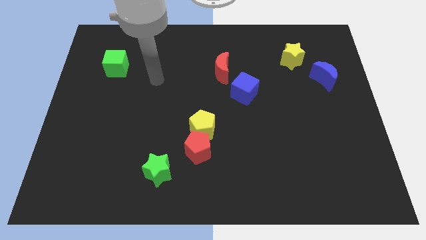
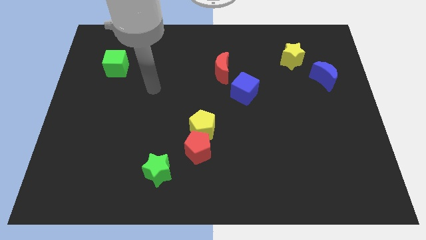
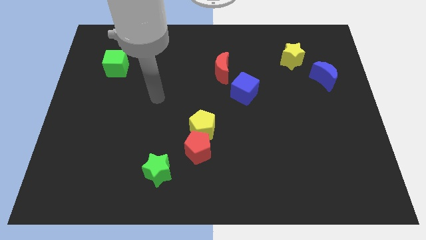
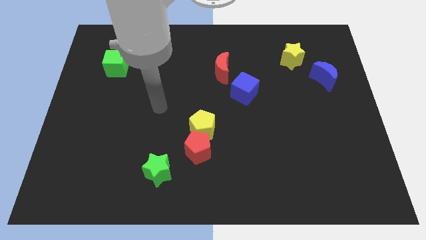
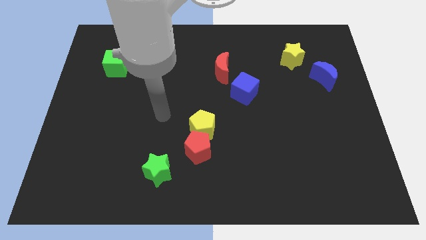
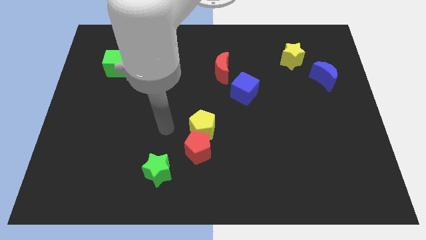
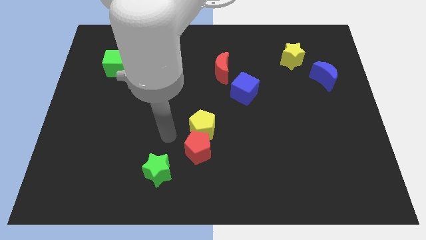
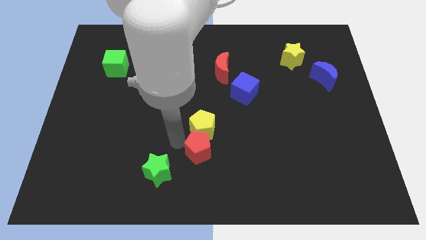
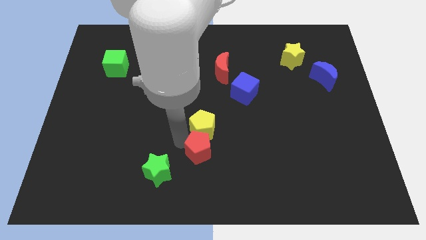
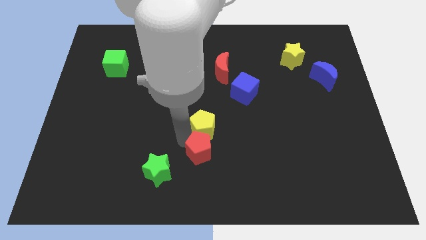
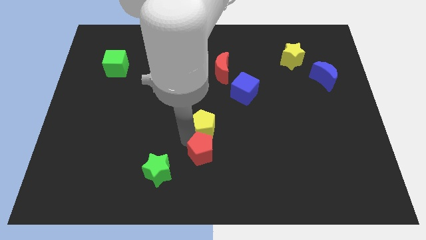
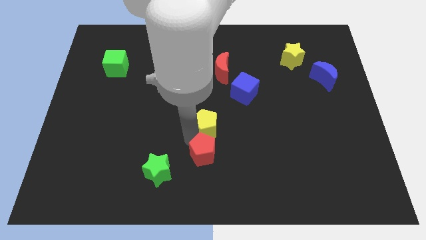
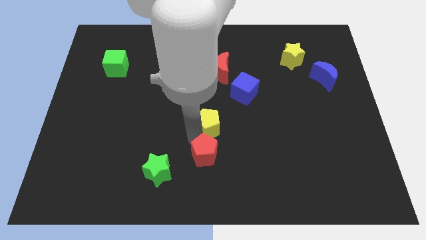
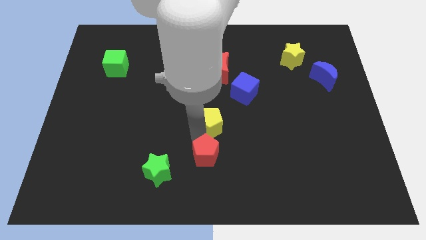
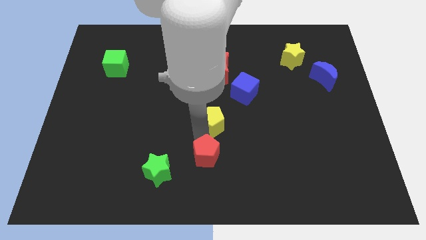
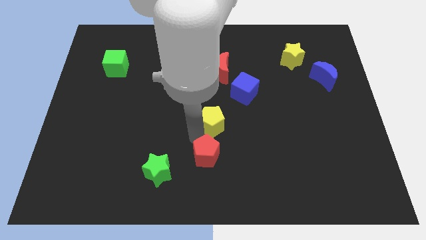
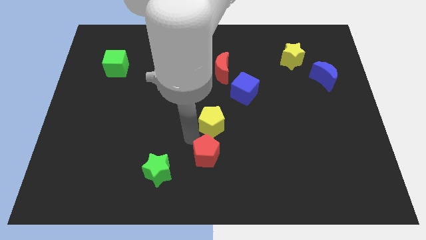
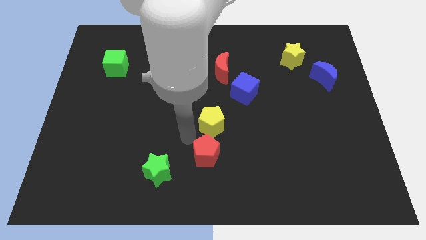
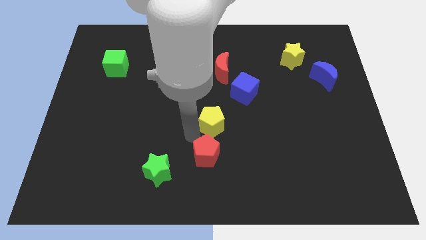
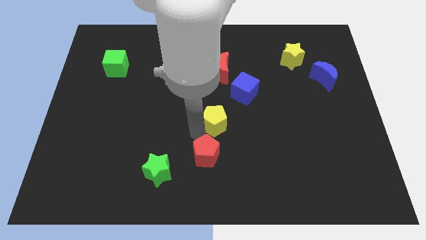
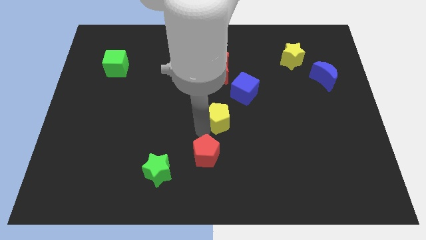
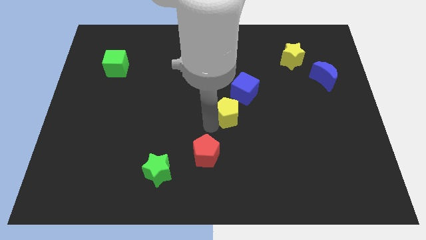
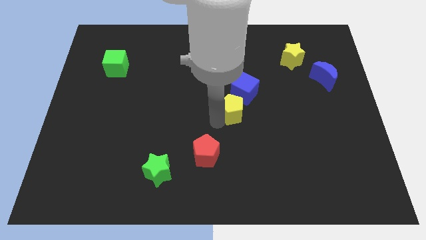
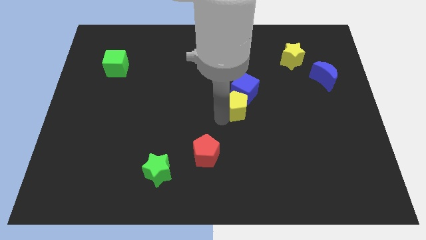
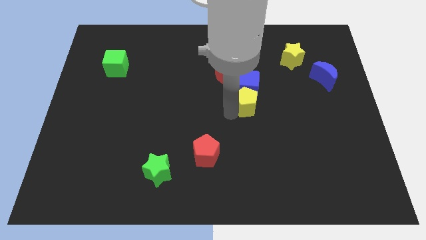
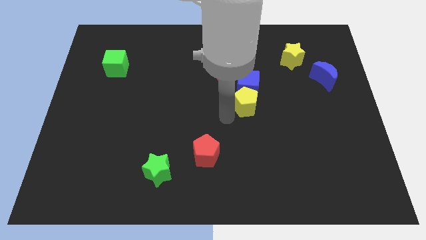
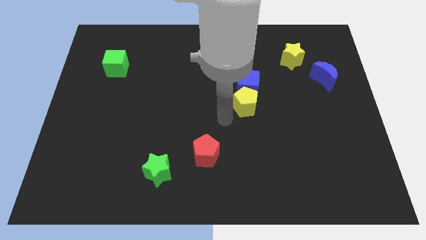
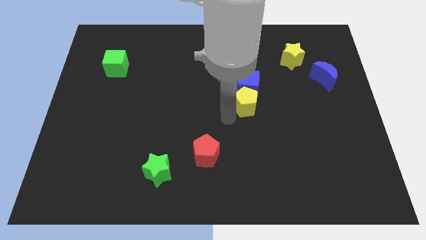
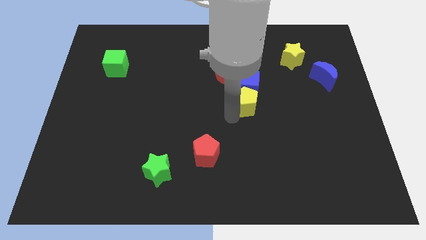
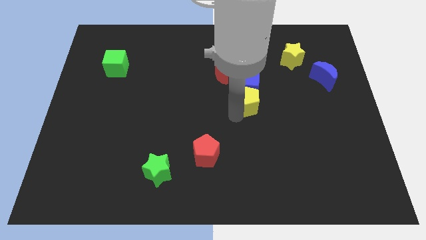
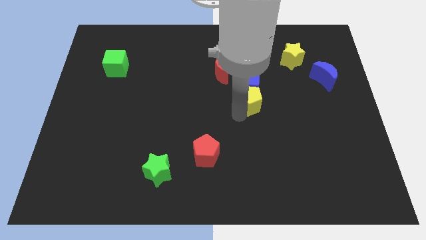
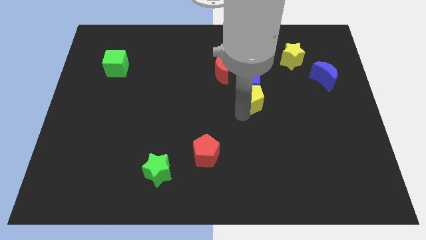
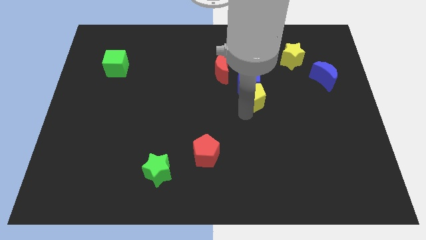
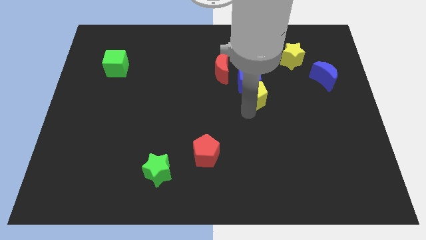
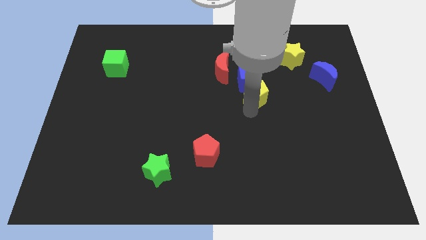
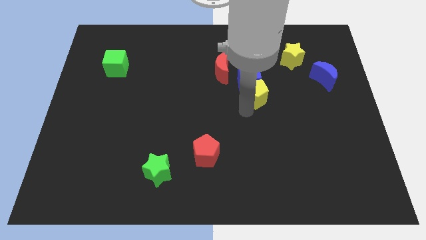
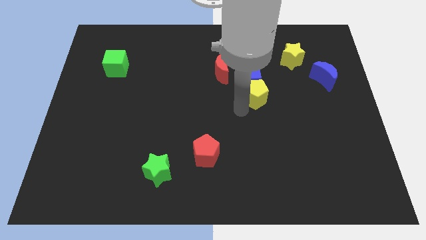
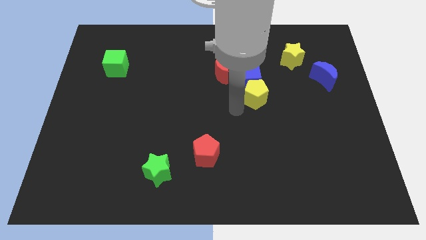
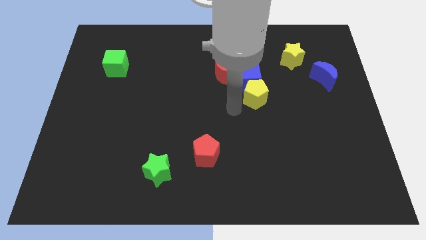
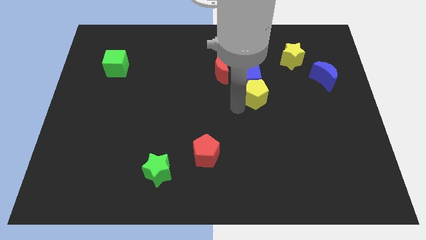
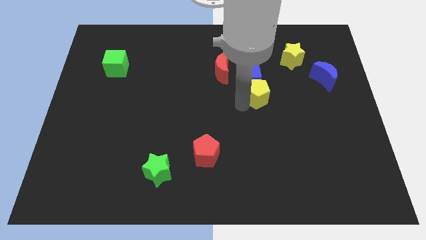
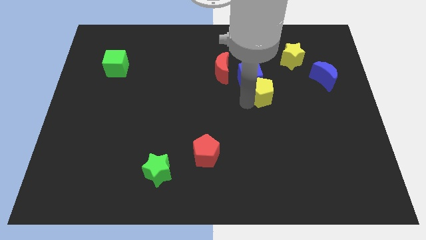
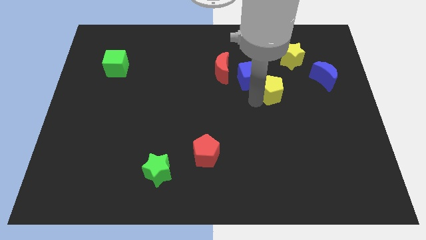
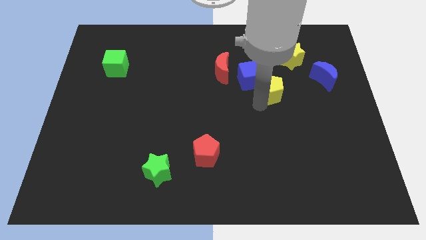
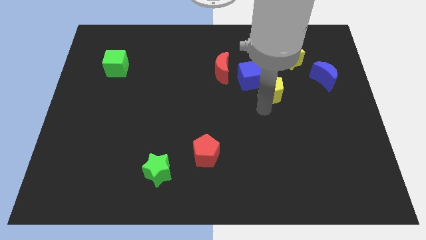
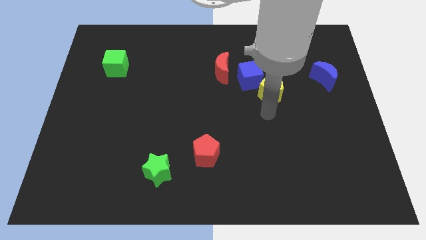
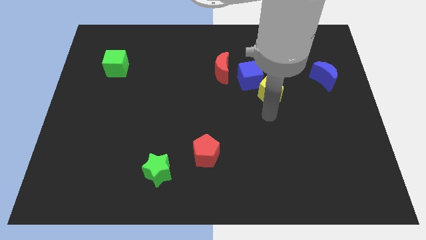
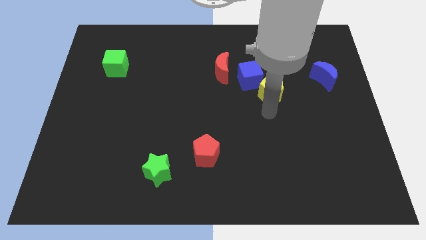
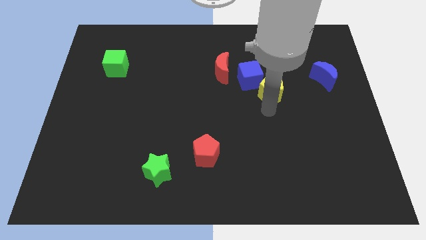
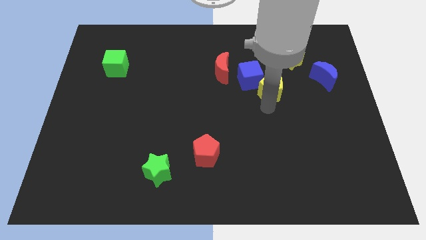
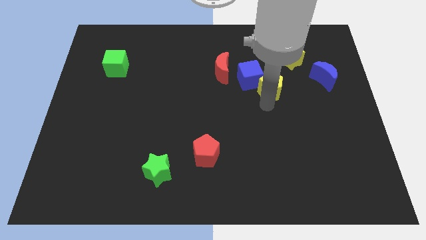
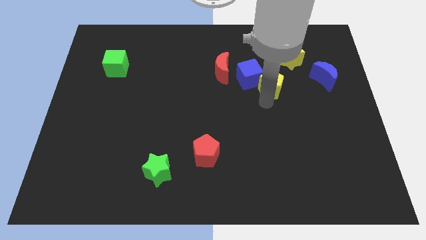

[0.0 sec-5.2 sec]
move the yellow pentagon to the bottom left of the yellow star

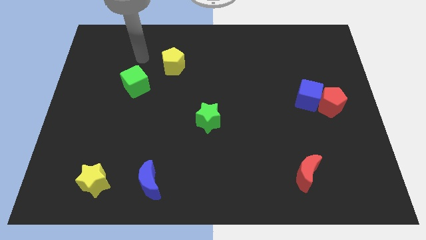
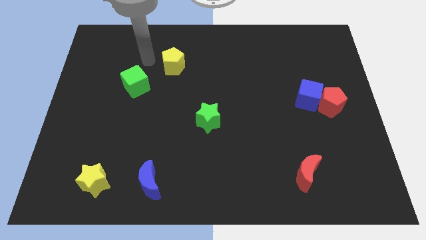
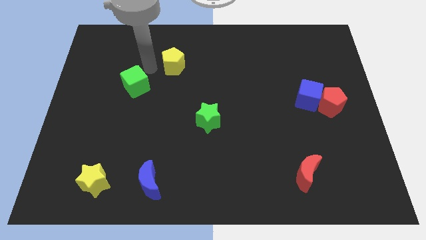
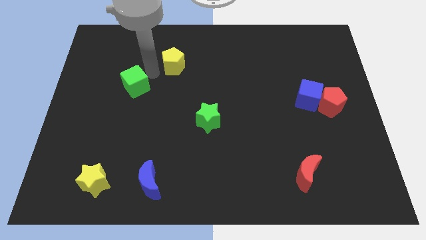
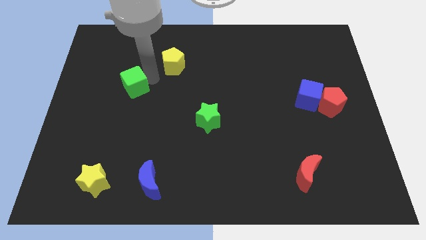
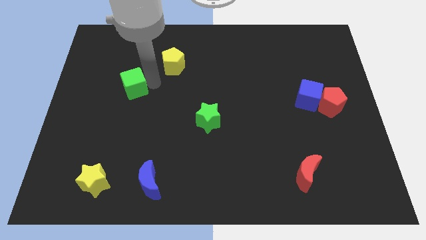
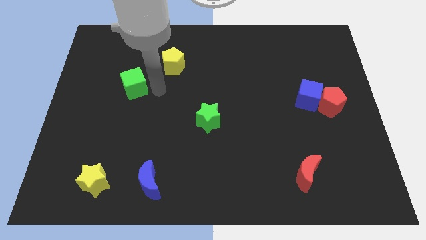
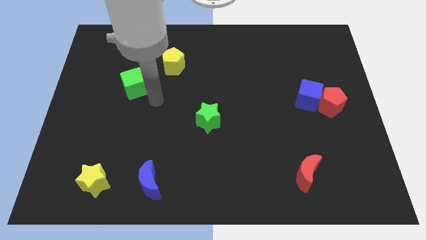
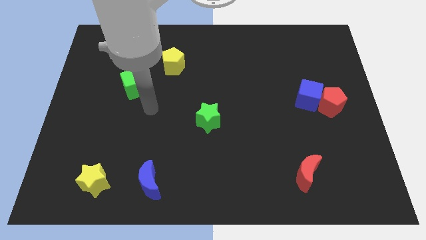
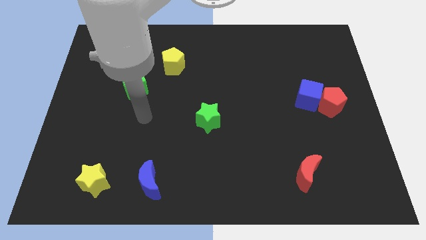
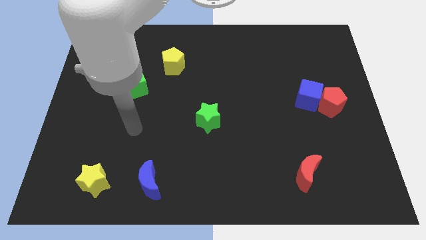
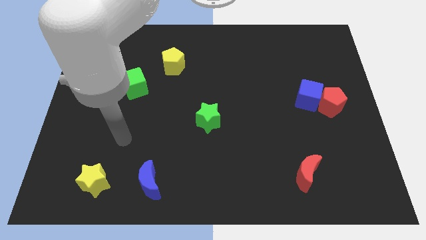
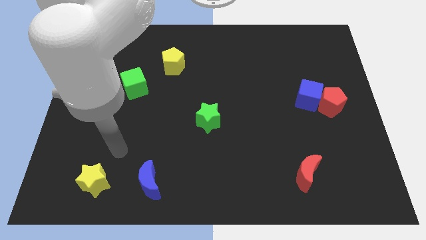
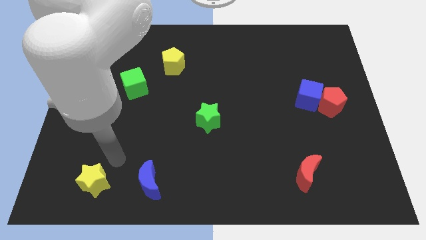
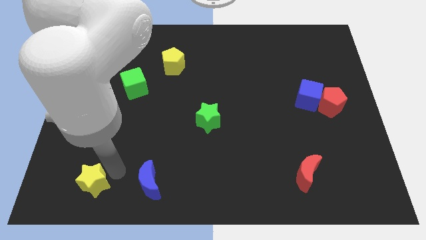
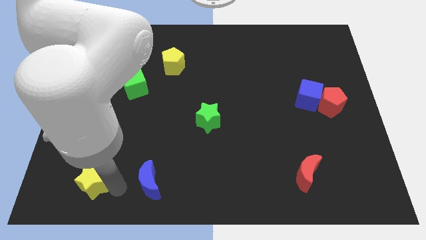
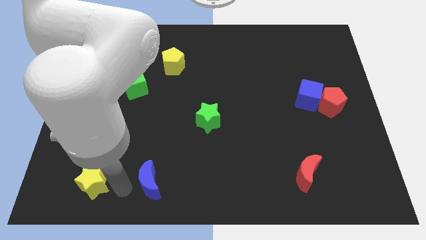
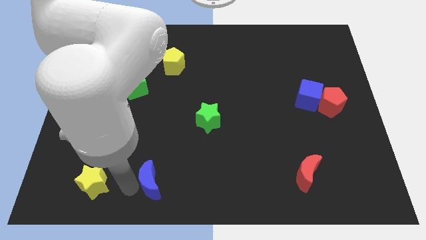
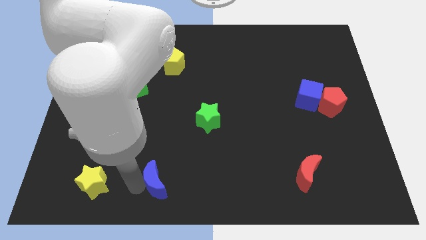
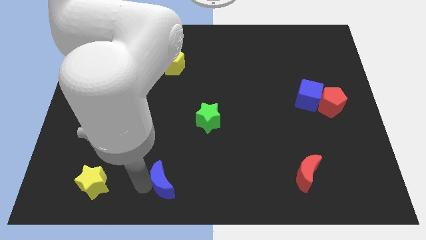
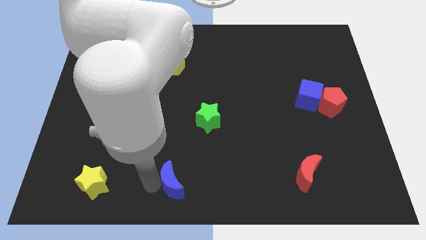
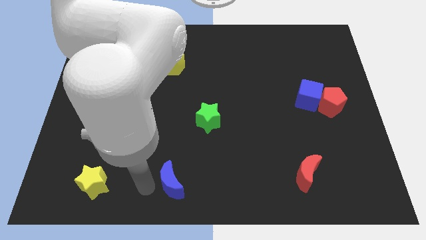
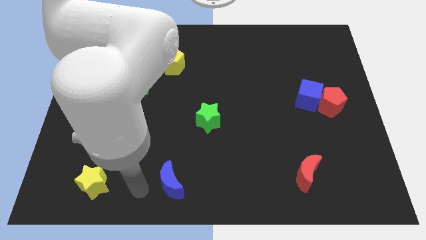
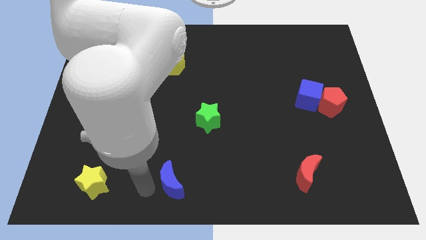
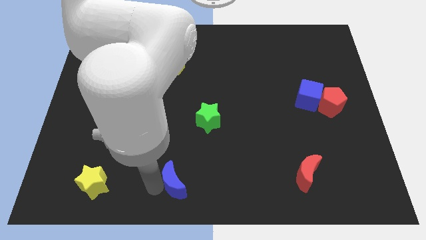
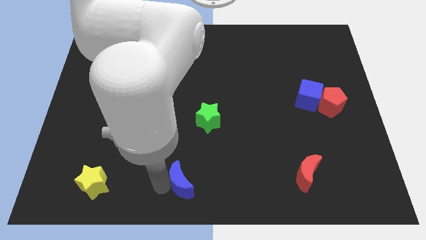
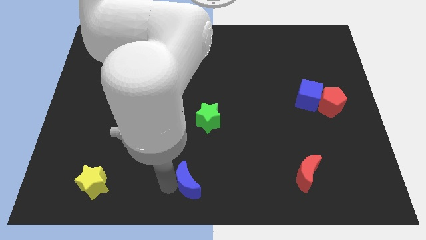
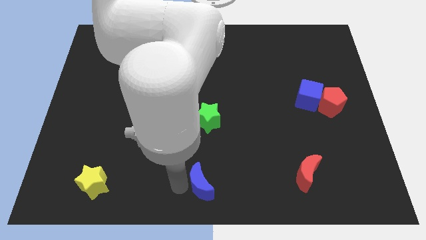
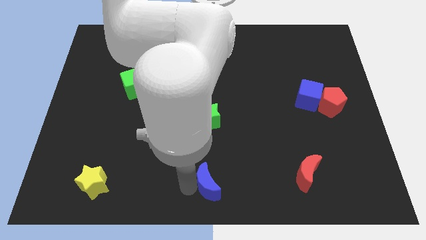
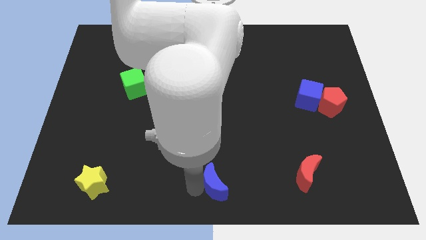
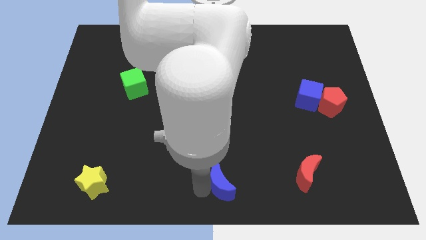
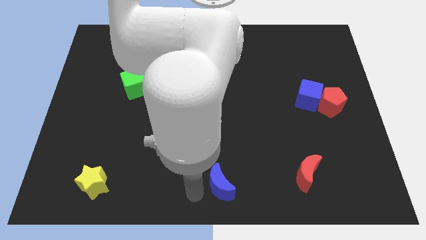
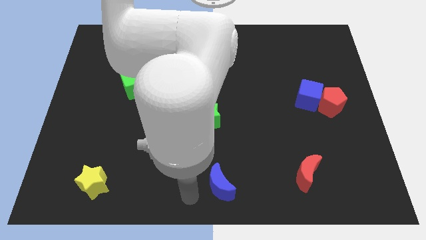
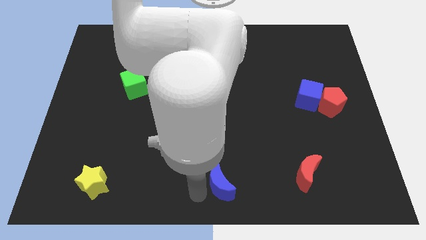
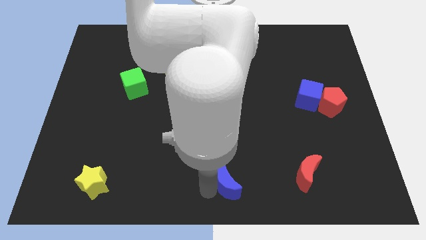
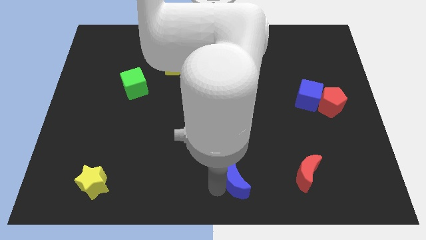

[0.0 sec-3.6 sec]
move the blue moon to the left side of the red moon
